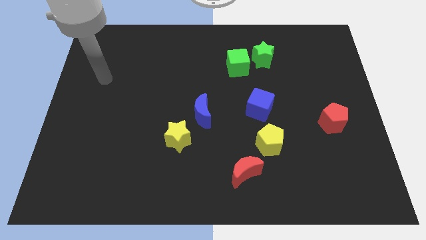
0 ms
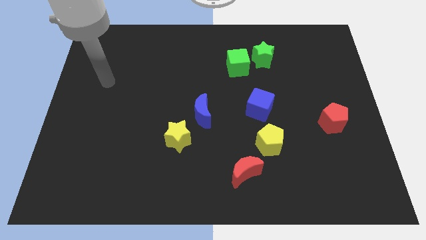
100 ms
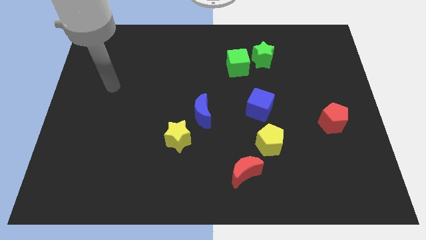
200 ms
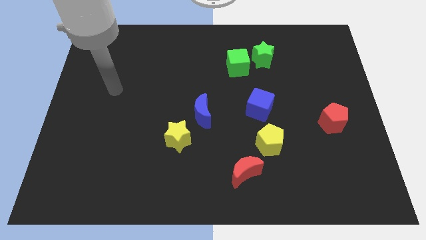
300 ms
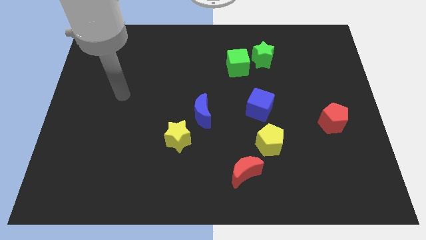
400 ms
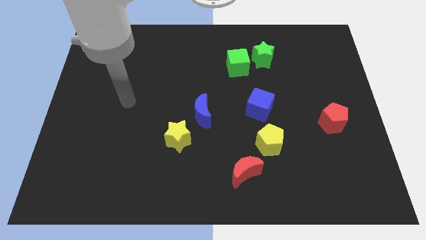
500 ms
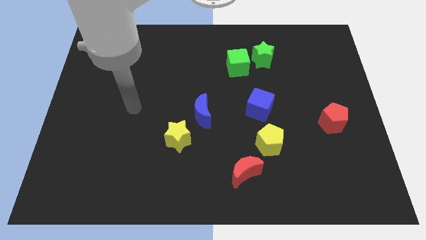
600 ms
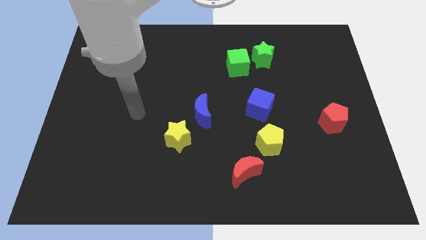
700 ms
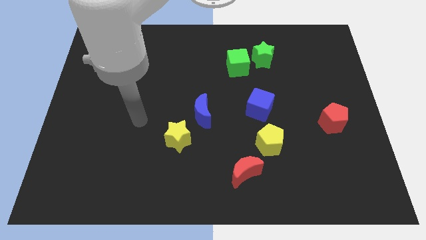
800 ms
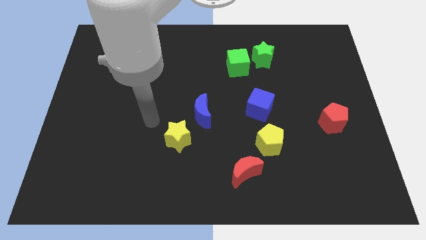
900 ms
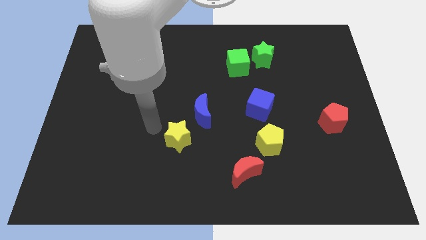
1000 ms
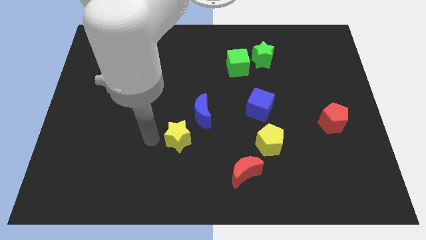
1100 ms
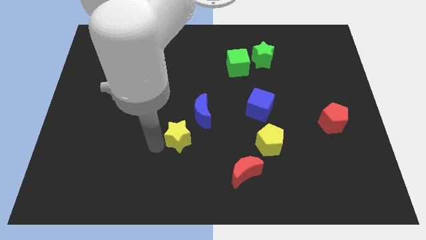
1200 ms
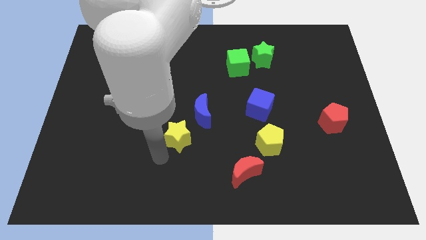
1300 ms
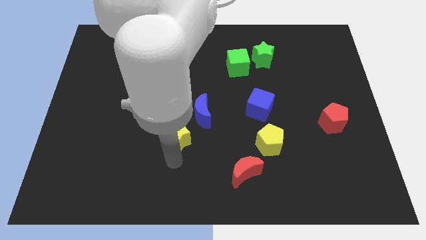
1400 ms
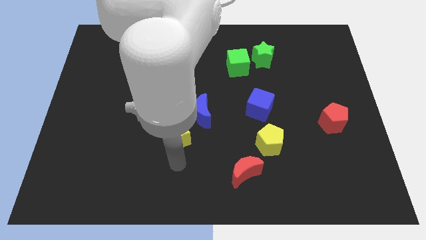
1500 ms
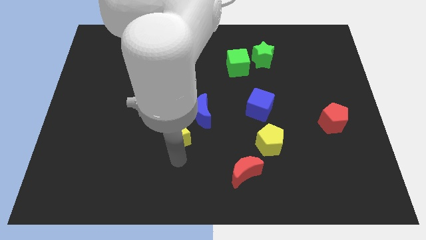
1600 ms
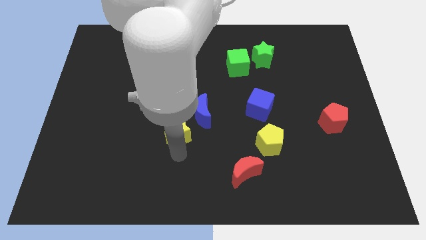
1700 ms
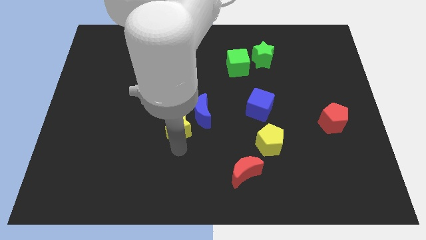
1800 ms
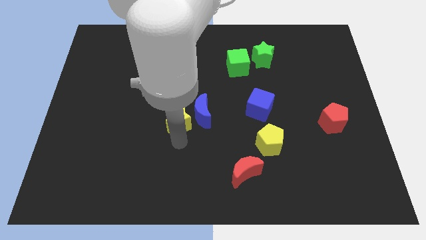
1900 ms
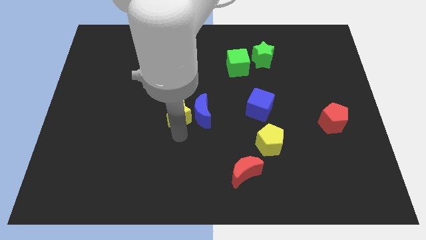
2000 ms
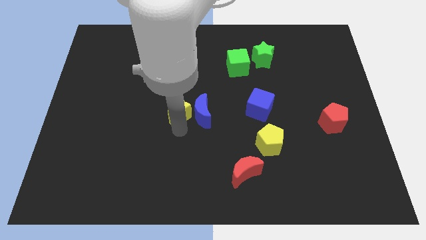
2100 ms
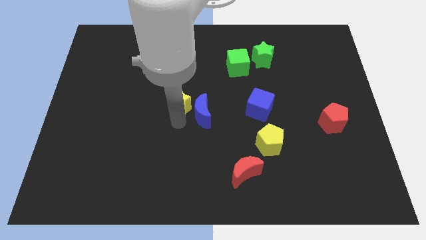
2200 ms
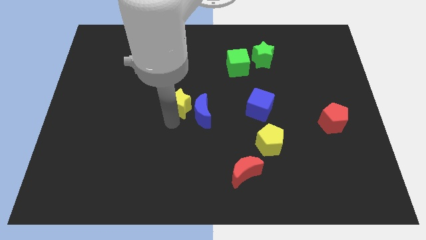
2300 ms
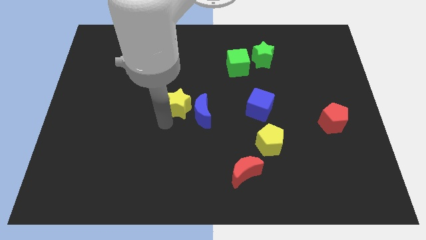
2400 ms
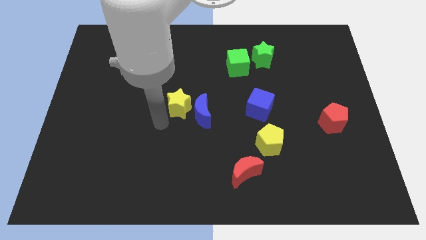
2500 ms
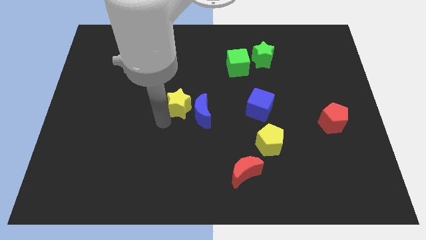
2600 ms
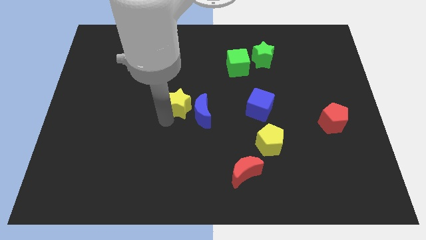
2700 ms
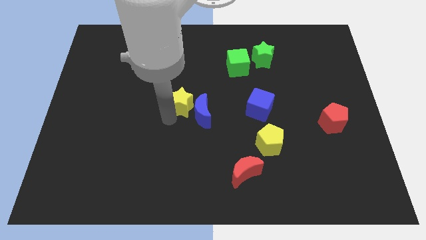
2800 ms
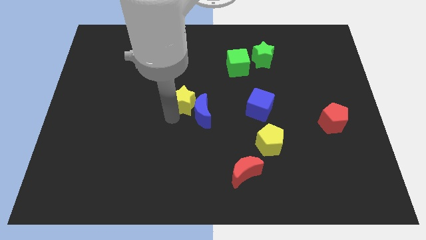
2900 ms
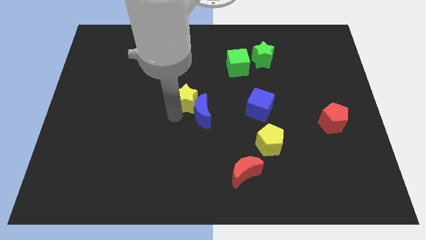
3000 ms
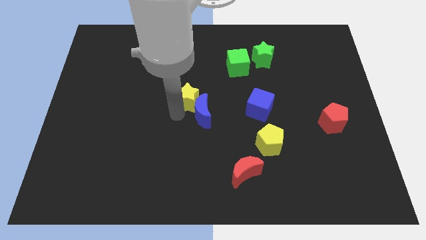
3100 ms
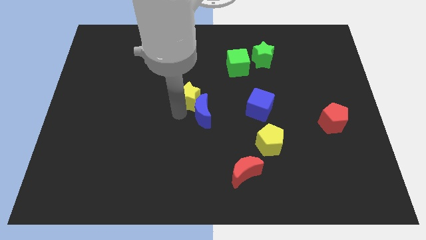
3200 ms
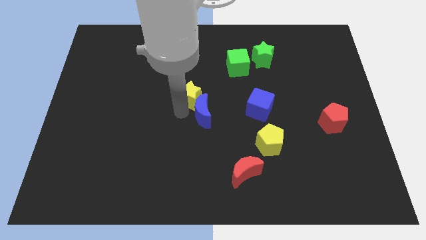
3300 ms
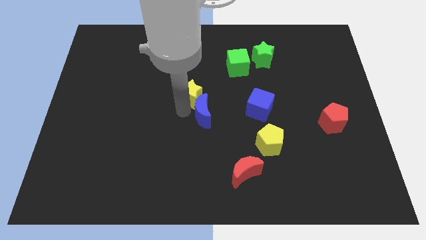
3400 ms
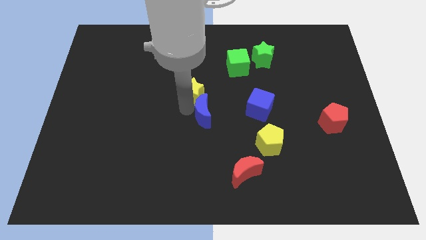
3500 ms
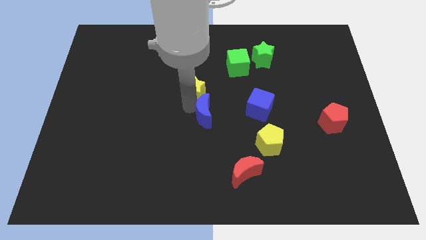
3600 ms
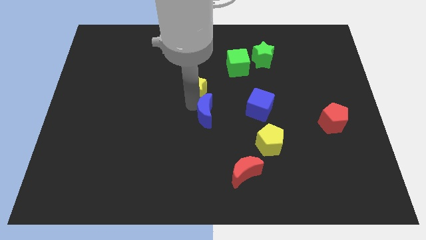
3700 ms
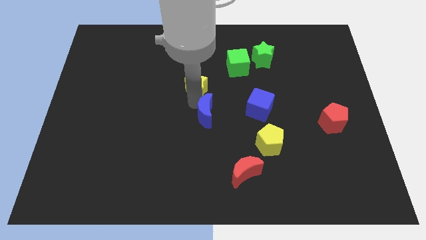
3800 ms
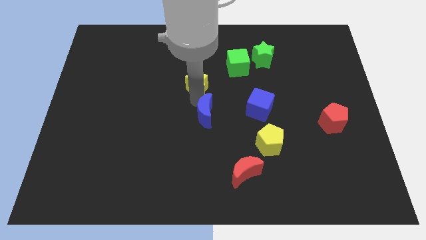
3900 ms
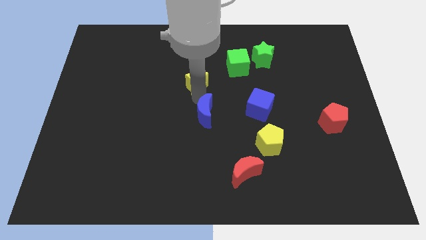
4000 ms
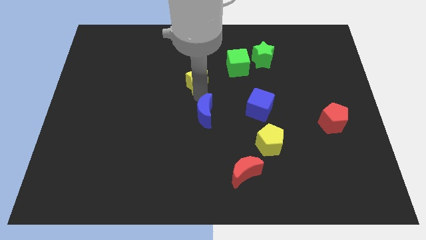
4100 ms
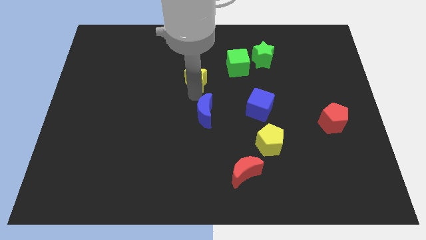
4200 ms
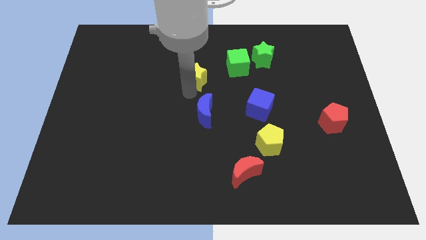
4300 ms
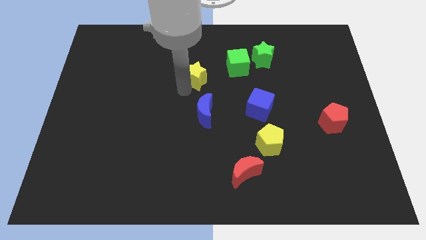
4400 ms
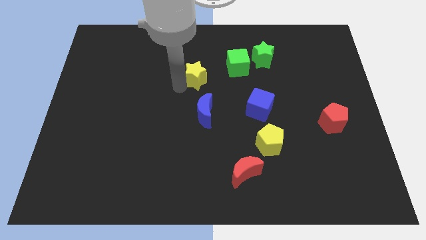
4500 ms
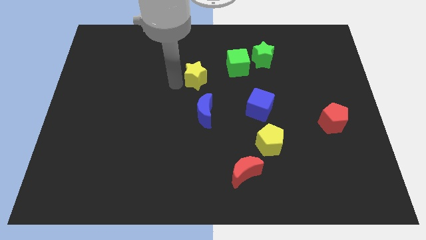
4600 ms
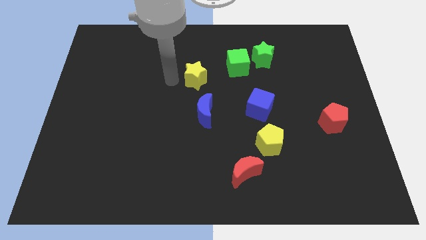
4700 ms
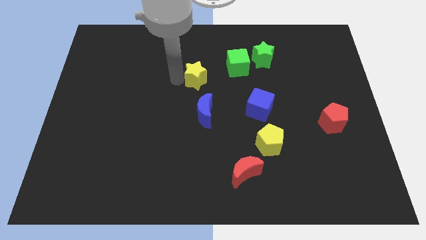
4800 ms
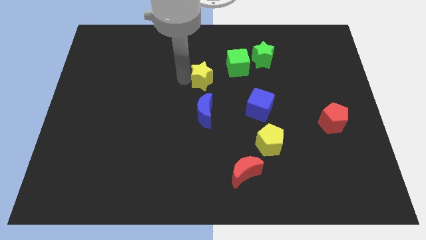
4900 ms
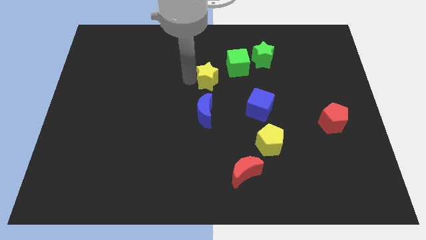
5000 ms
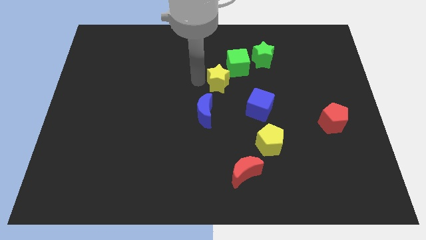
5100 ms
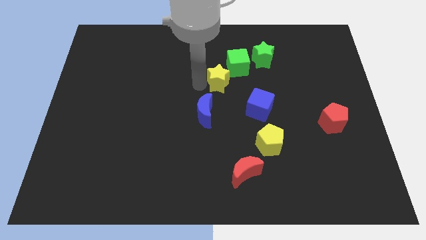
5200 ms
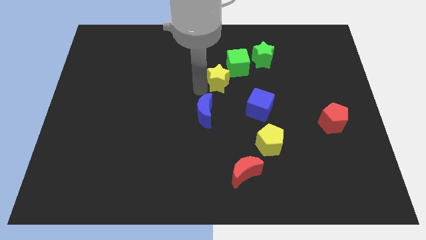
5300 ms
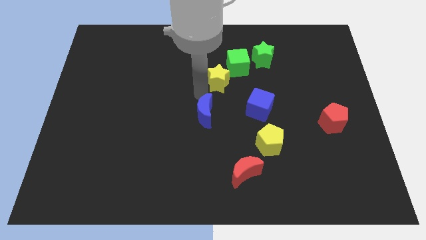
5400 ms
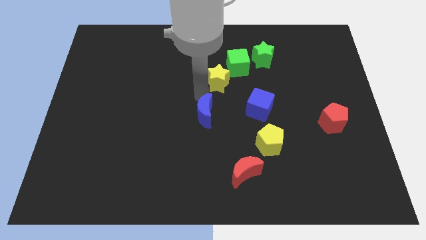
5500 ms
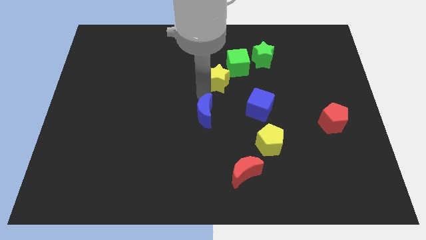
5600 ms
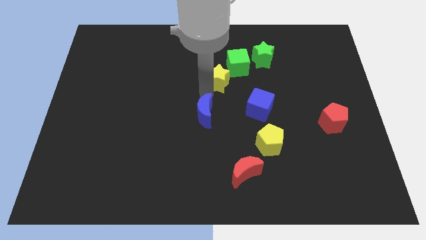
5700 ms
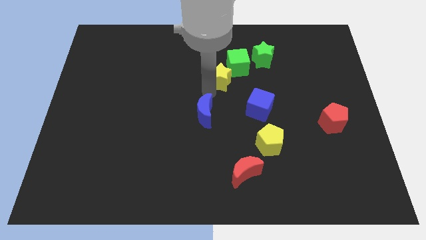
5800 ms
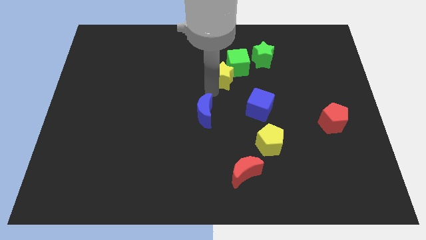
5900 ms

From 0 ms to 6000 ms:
put the yellow star towards the green cube

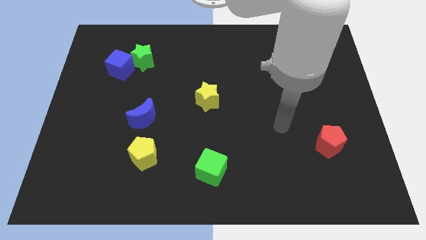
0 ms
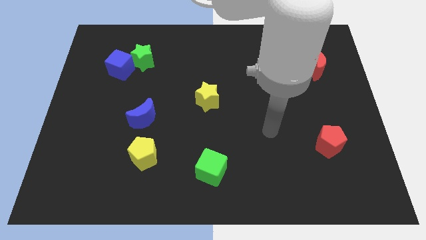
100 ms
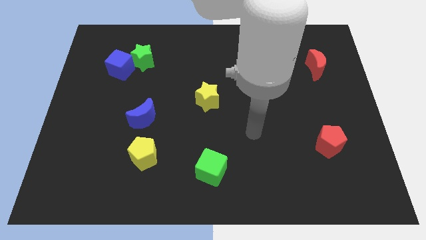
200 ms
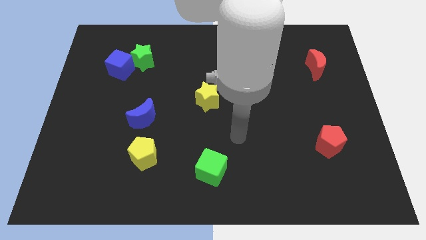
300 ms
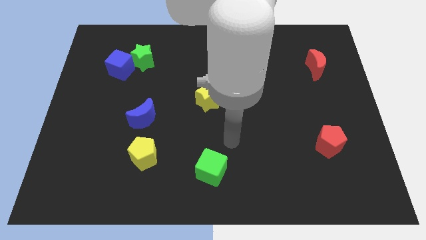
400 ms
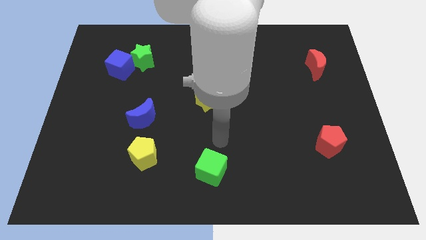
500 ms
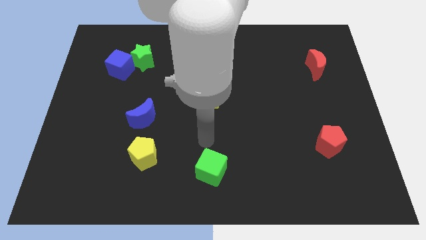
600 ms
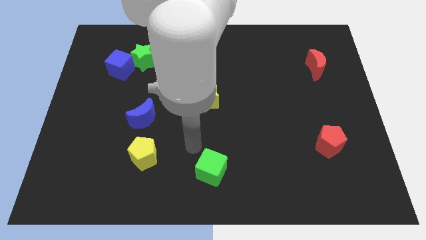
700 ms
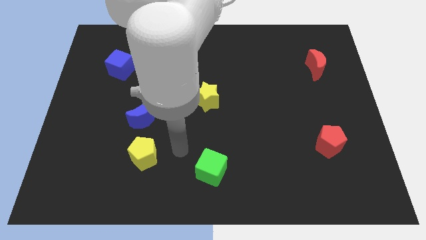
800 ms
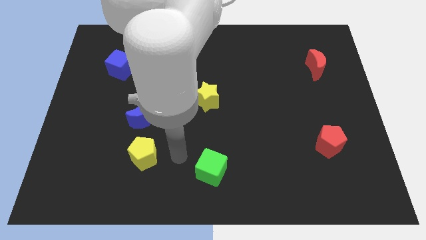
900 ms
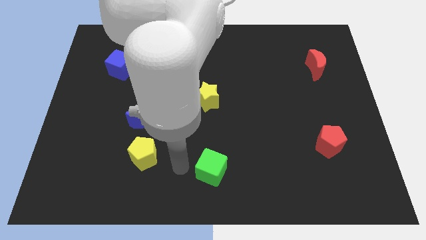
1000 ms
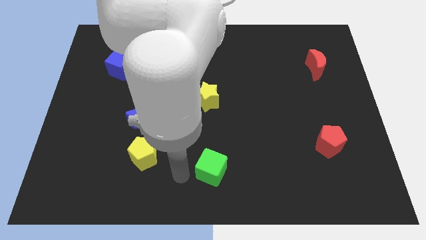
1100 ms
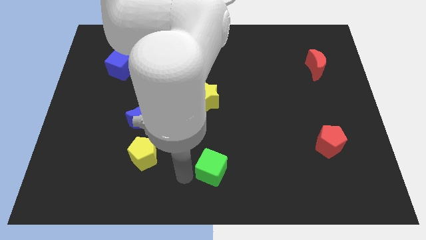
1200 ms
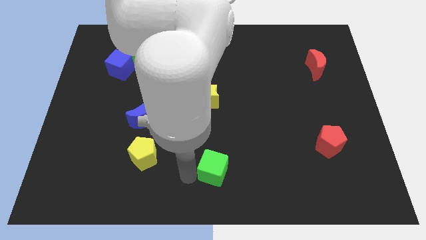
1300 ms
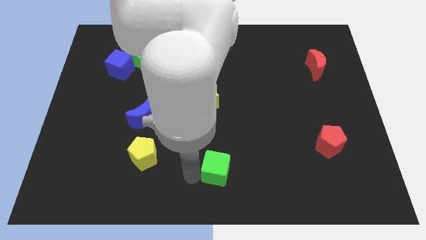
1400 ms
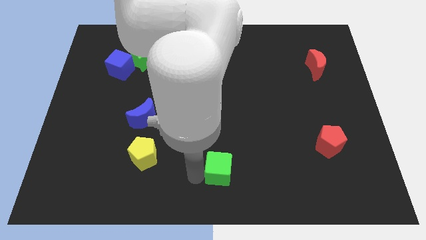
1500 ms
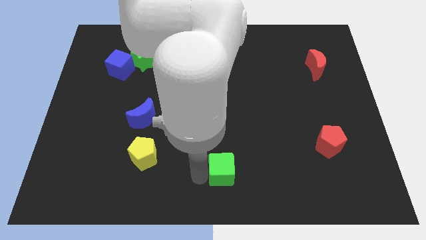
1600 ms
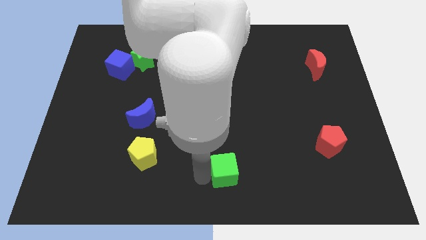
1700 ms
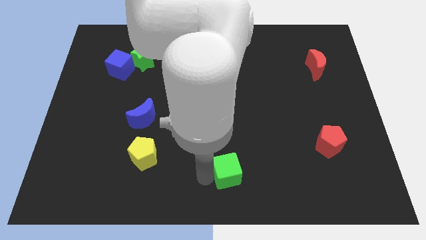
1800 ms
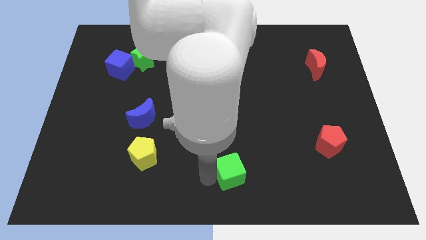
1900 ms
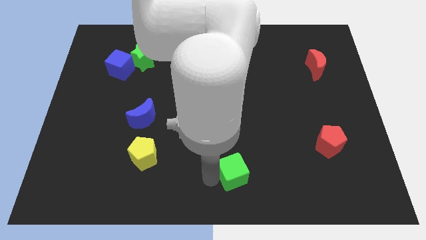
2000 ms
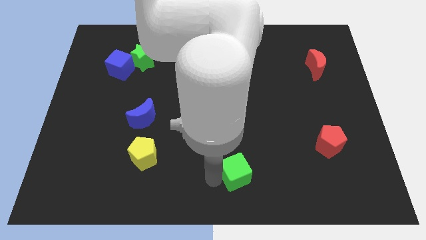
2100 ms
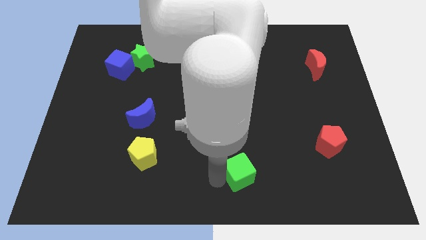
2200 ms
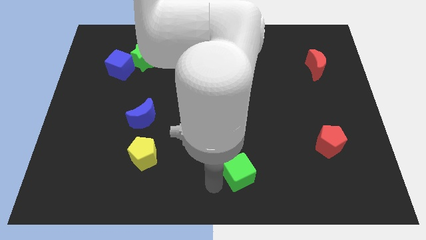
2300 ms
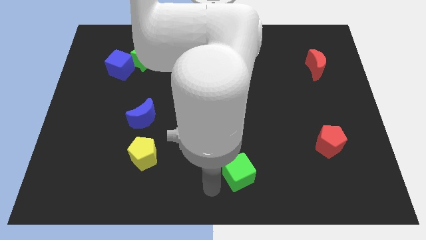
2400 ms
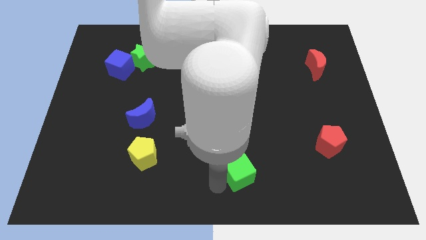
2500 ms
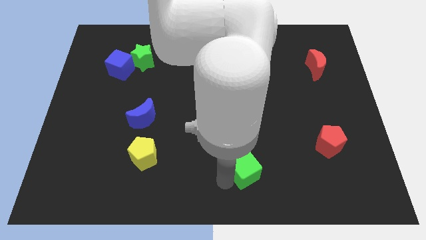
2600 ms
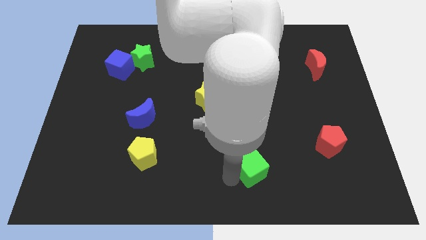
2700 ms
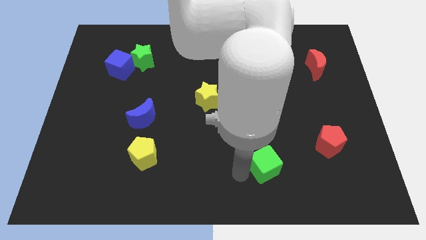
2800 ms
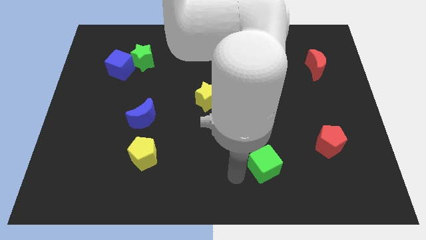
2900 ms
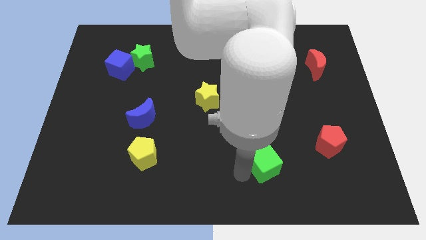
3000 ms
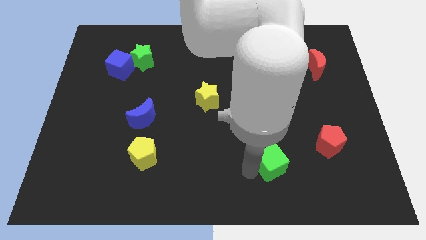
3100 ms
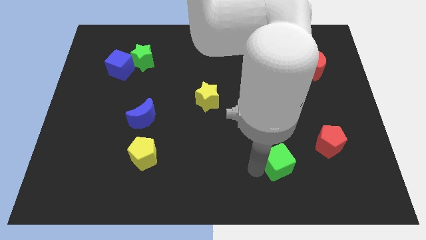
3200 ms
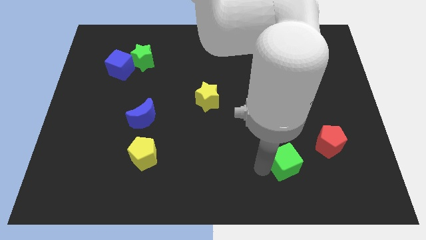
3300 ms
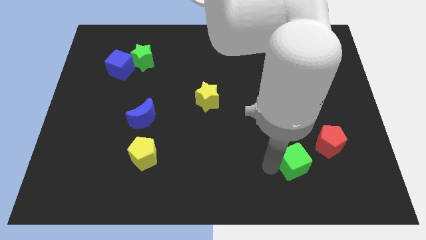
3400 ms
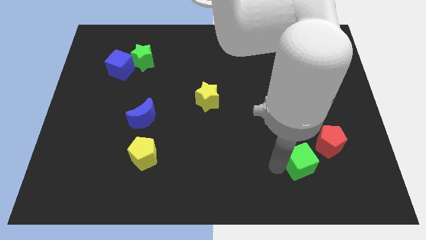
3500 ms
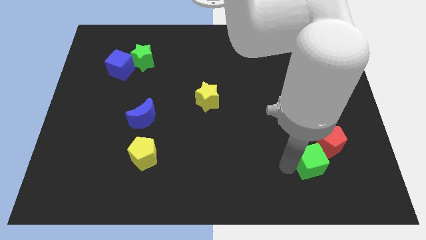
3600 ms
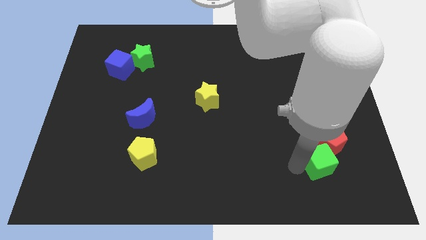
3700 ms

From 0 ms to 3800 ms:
slide the green cube to the red pentagon
